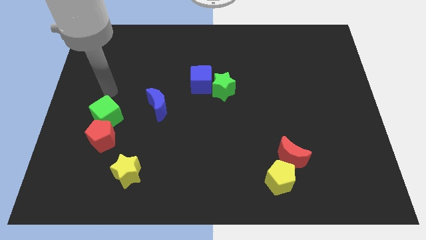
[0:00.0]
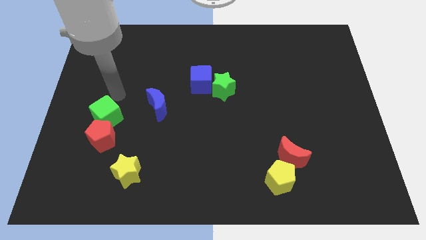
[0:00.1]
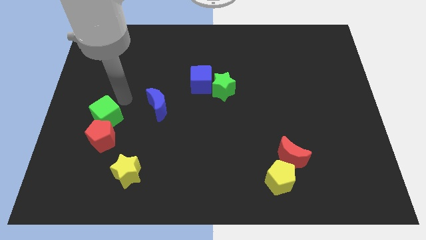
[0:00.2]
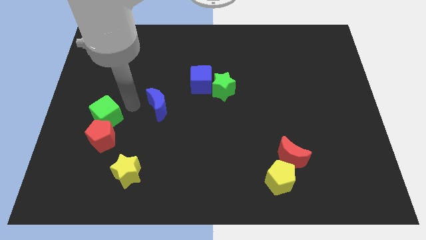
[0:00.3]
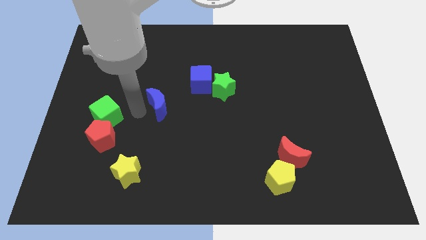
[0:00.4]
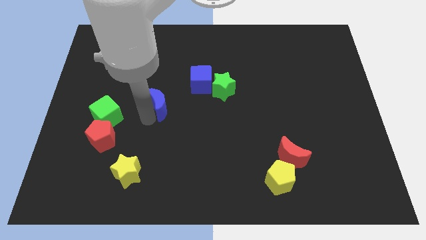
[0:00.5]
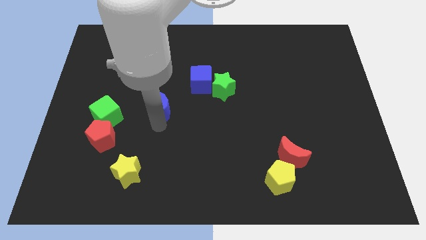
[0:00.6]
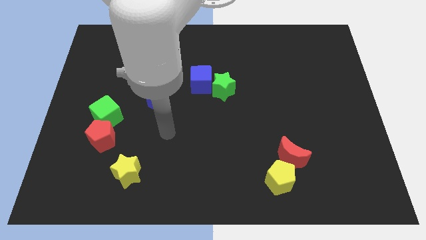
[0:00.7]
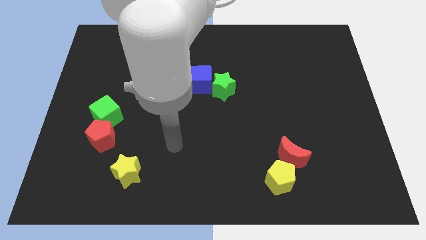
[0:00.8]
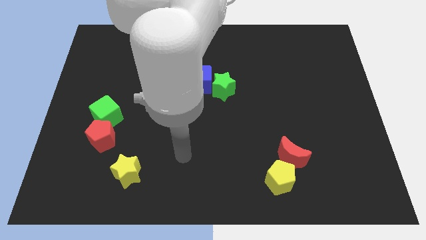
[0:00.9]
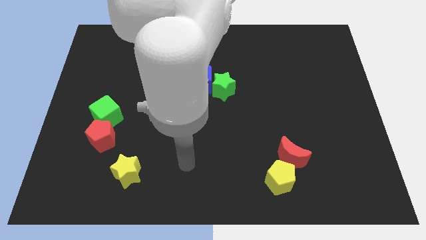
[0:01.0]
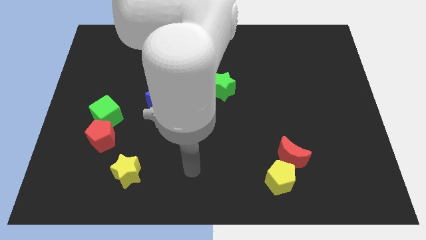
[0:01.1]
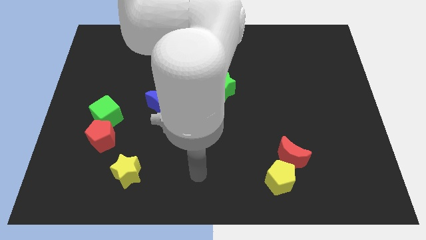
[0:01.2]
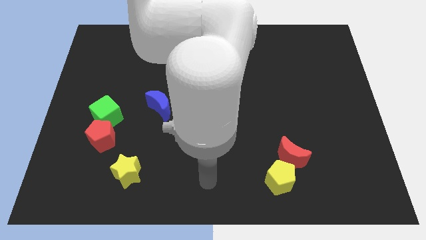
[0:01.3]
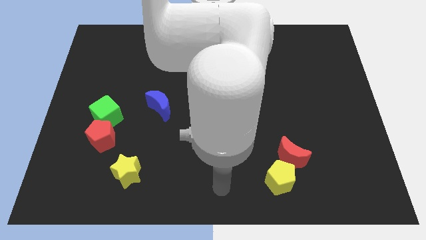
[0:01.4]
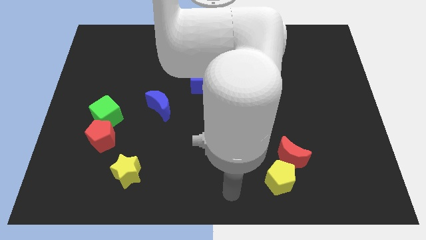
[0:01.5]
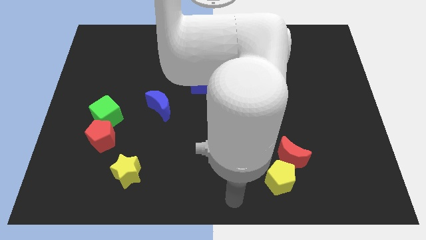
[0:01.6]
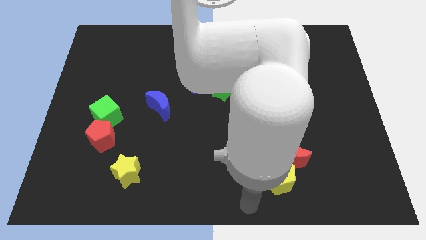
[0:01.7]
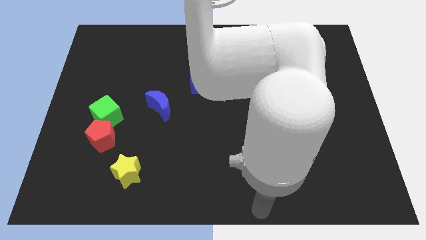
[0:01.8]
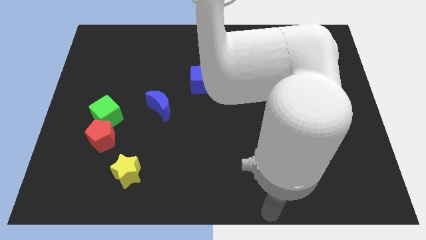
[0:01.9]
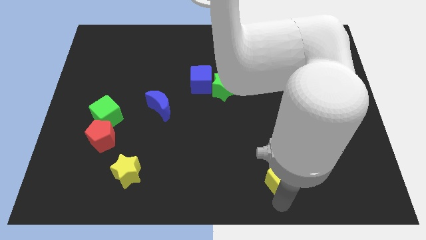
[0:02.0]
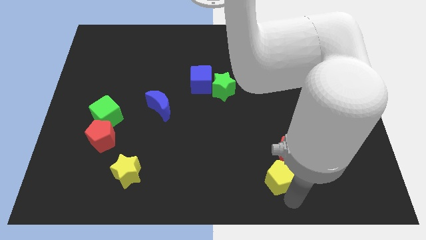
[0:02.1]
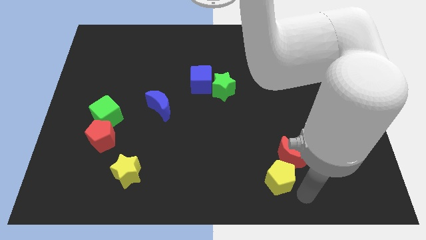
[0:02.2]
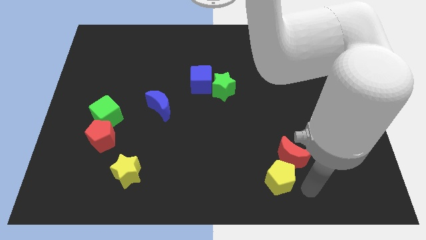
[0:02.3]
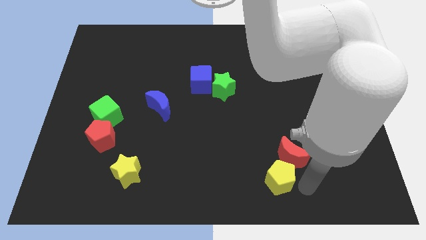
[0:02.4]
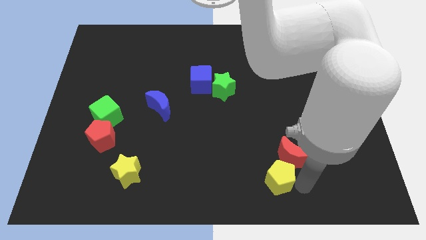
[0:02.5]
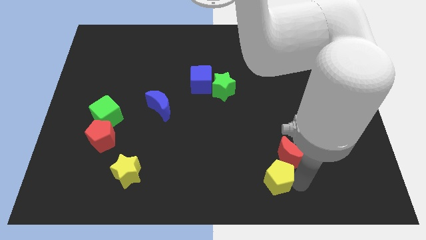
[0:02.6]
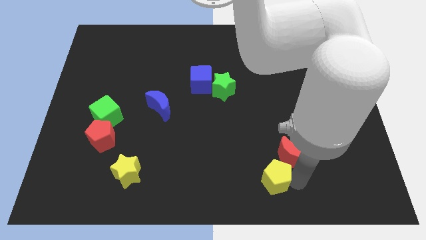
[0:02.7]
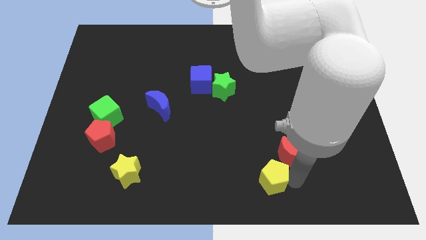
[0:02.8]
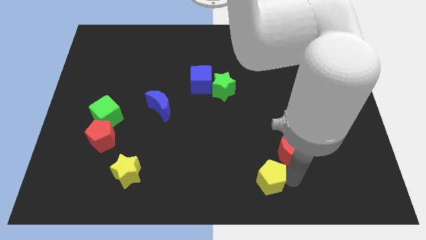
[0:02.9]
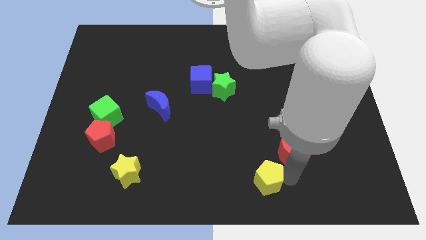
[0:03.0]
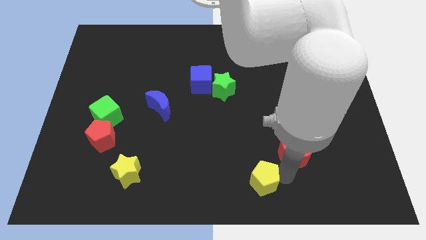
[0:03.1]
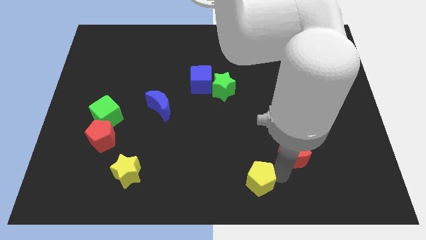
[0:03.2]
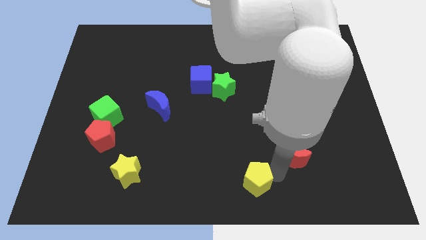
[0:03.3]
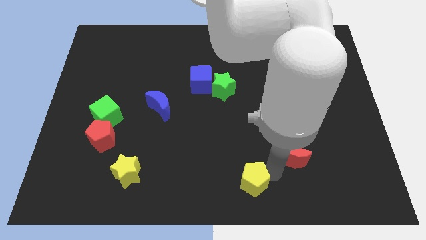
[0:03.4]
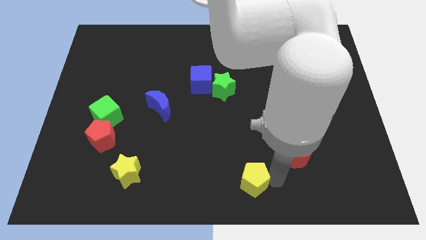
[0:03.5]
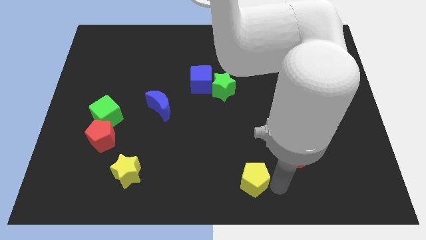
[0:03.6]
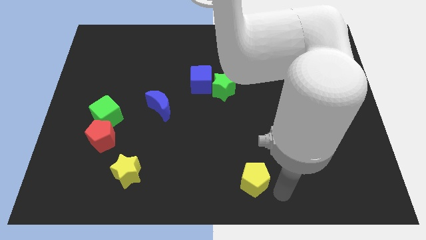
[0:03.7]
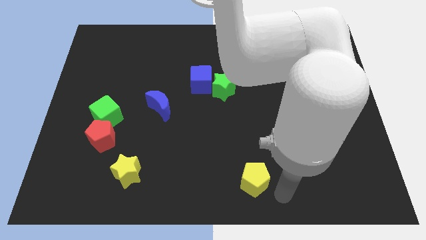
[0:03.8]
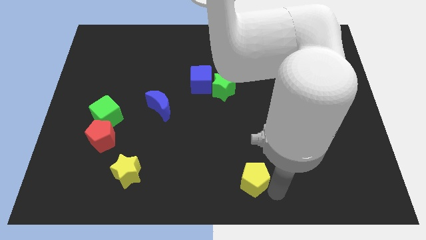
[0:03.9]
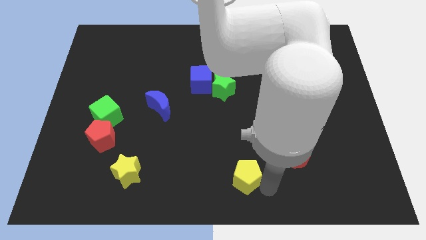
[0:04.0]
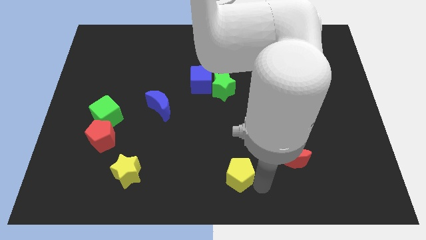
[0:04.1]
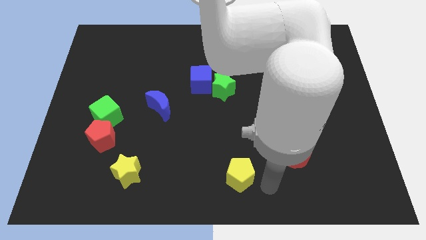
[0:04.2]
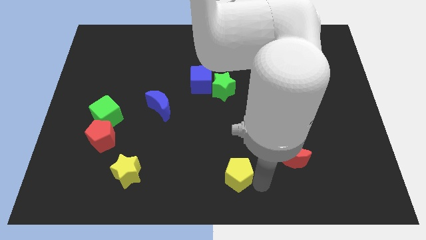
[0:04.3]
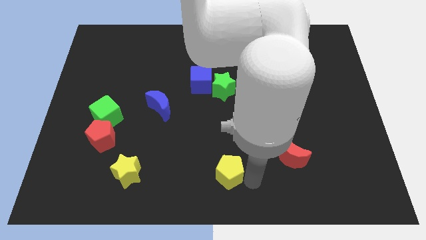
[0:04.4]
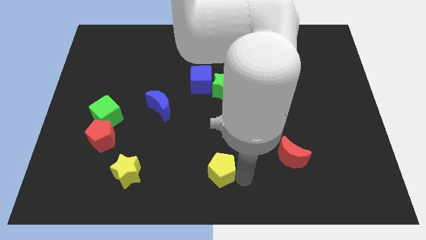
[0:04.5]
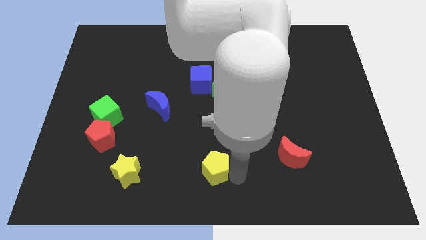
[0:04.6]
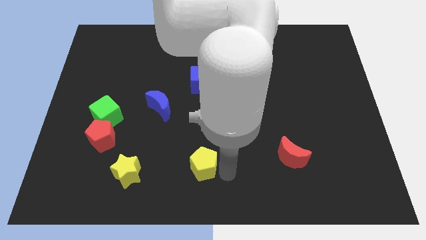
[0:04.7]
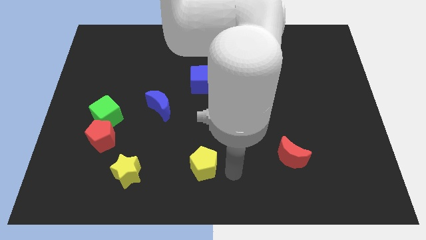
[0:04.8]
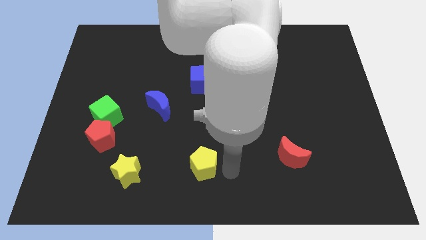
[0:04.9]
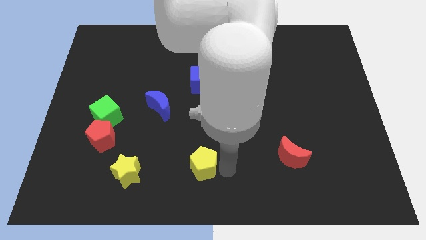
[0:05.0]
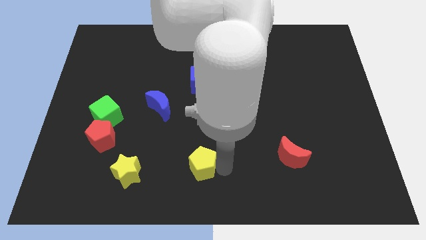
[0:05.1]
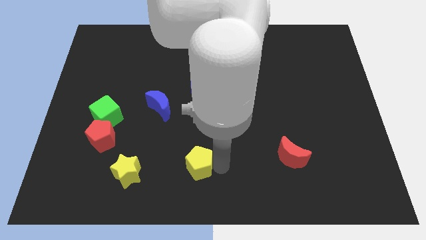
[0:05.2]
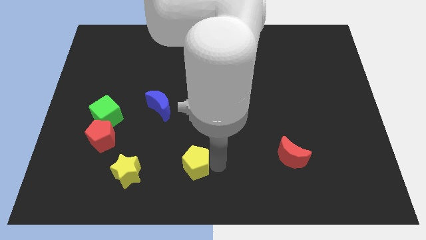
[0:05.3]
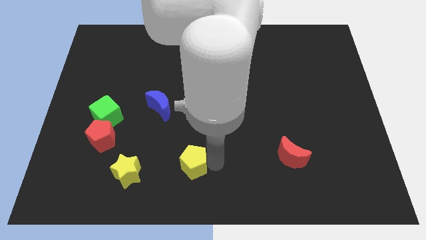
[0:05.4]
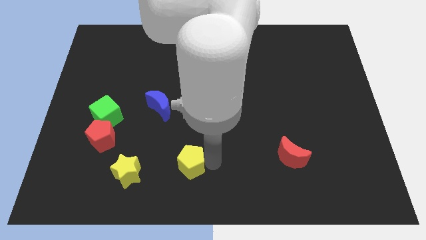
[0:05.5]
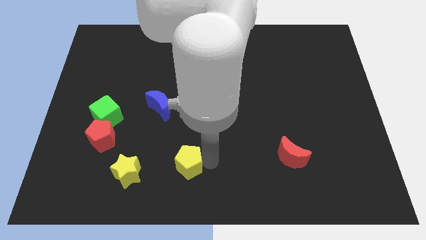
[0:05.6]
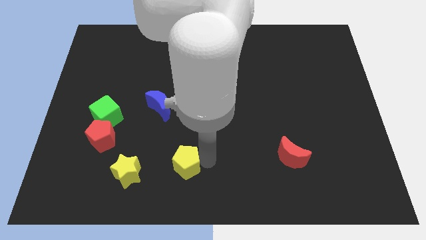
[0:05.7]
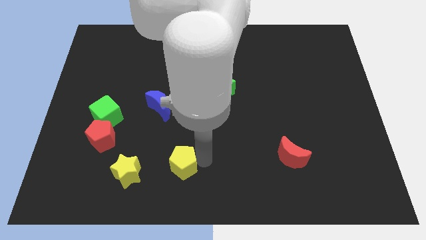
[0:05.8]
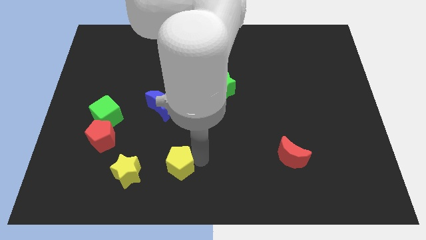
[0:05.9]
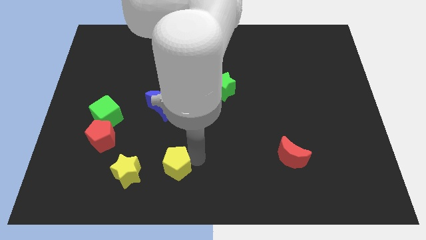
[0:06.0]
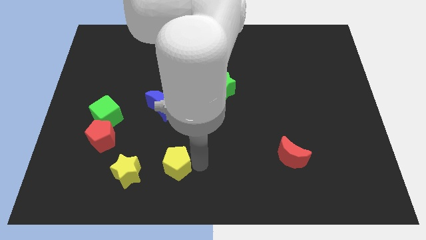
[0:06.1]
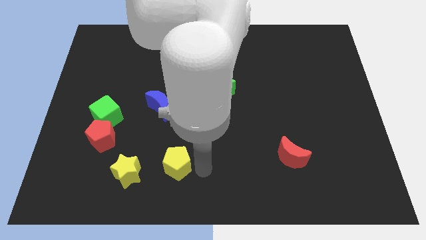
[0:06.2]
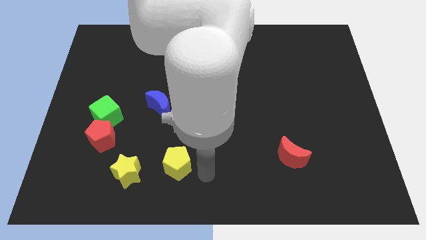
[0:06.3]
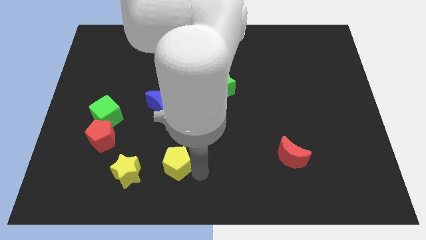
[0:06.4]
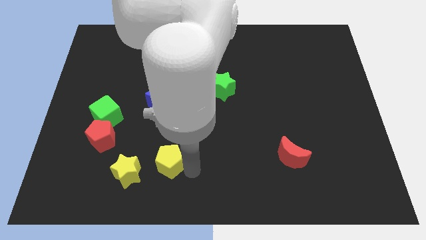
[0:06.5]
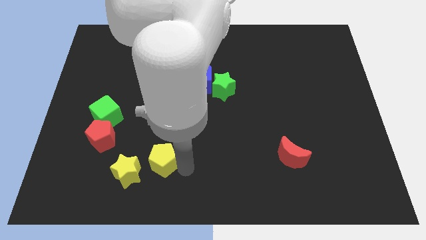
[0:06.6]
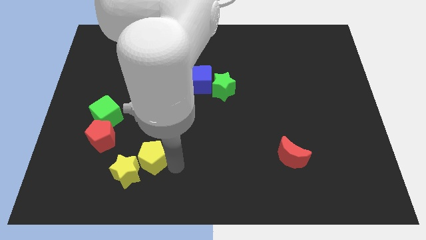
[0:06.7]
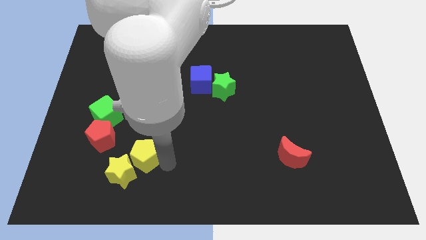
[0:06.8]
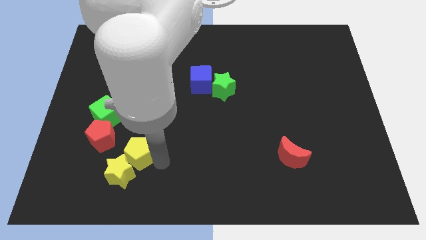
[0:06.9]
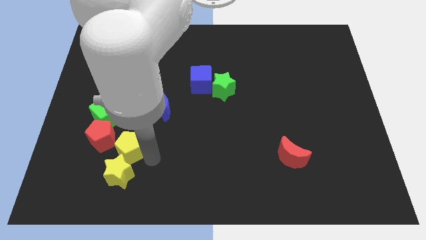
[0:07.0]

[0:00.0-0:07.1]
push the yellow pentagon diagonally up and to the left of the yellow star
